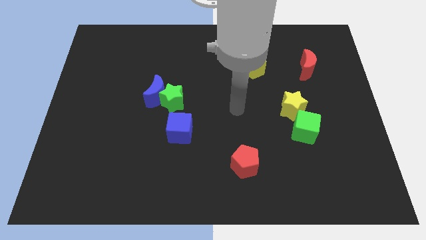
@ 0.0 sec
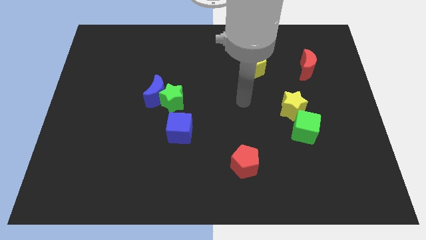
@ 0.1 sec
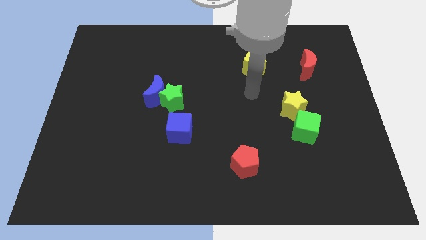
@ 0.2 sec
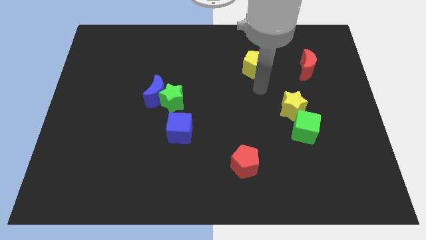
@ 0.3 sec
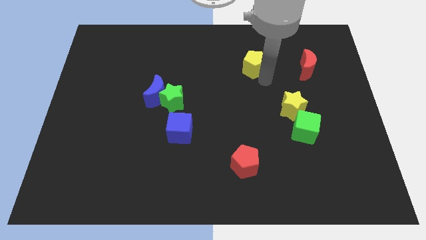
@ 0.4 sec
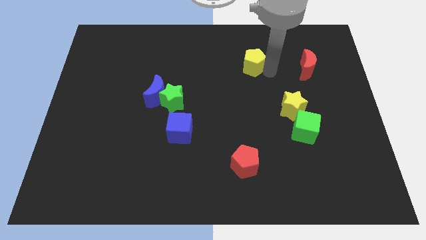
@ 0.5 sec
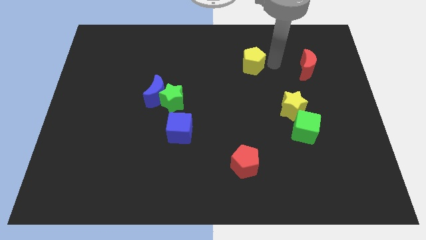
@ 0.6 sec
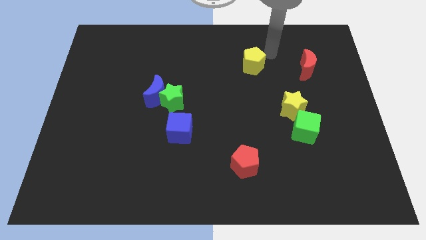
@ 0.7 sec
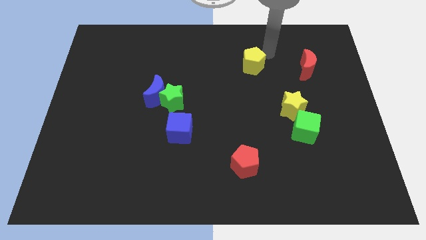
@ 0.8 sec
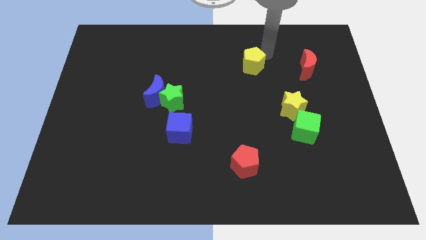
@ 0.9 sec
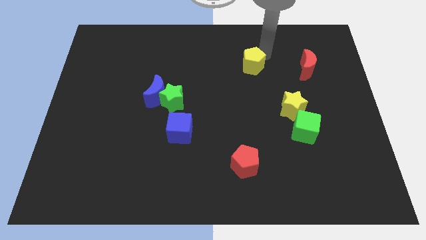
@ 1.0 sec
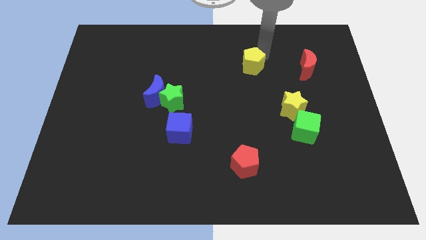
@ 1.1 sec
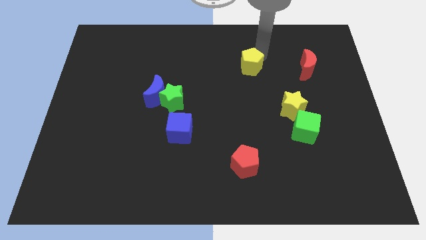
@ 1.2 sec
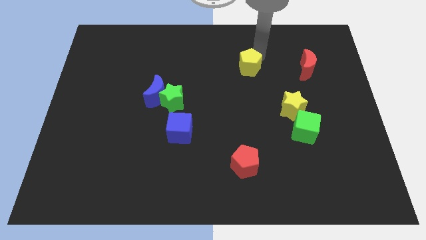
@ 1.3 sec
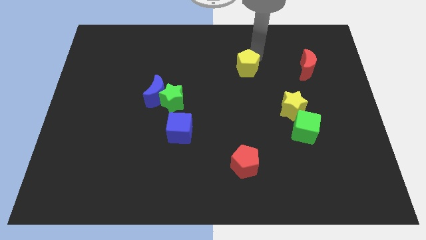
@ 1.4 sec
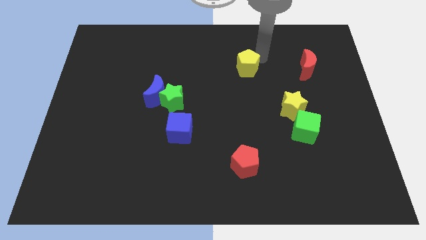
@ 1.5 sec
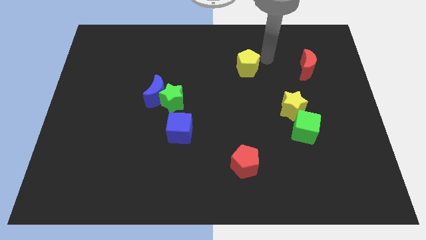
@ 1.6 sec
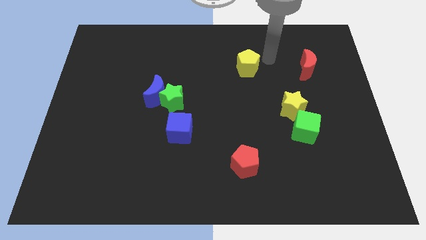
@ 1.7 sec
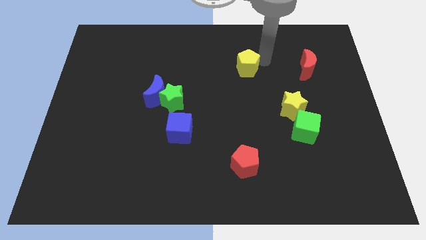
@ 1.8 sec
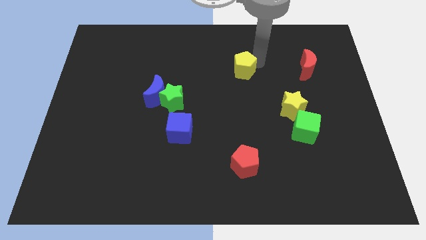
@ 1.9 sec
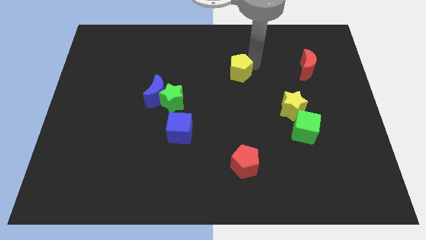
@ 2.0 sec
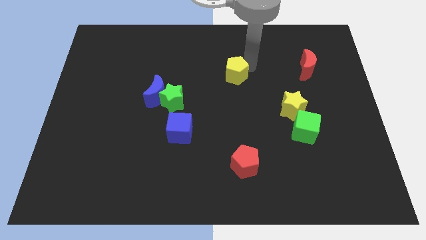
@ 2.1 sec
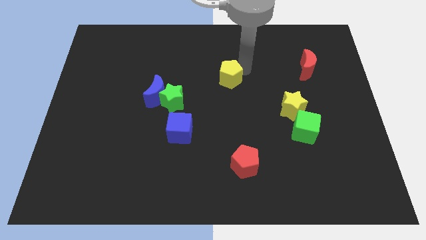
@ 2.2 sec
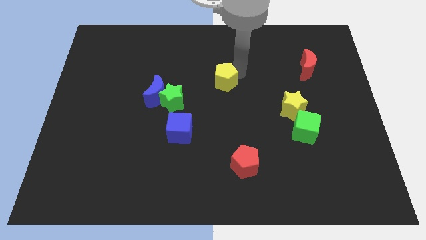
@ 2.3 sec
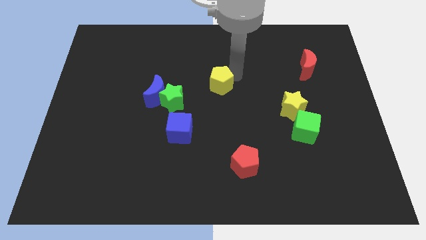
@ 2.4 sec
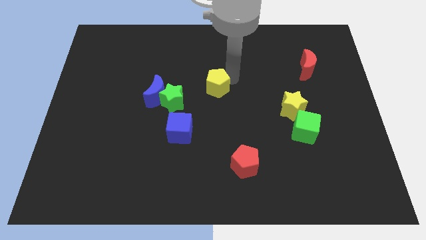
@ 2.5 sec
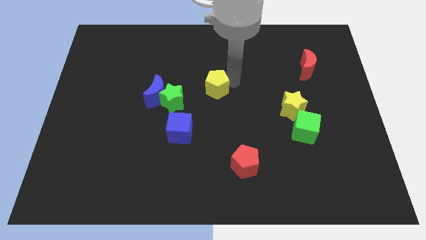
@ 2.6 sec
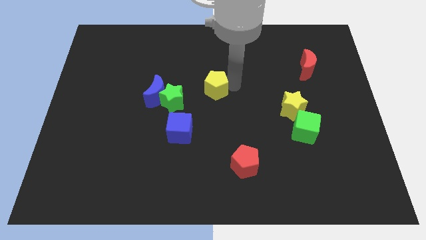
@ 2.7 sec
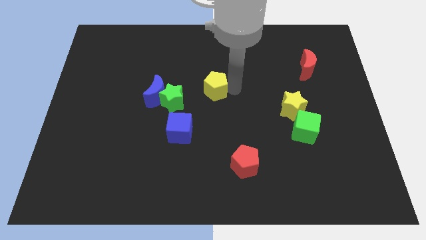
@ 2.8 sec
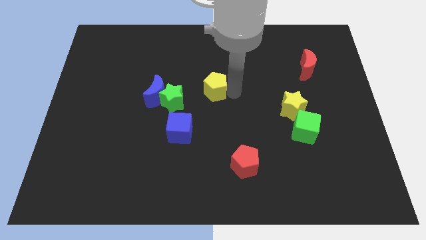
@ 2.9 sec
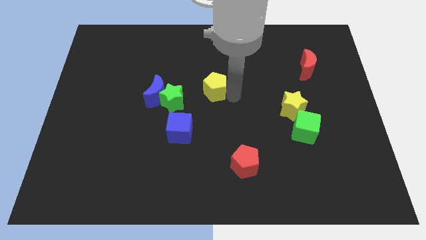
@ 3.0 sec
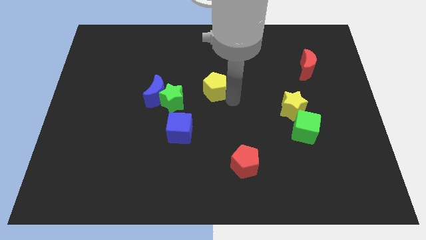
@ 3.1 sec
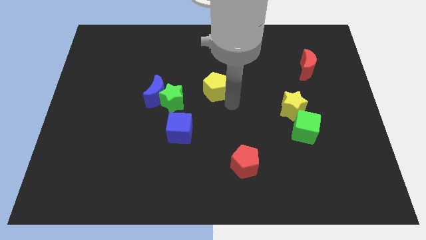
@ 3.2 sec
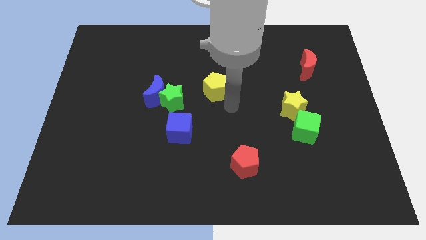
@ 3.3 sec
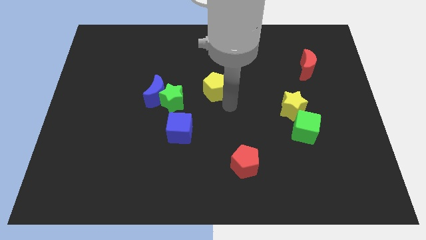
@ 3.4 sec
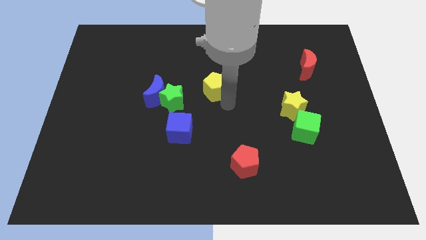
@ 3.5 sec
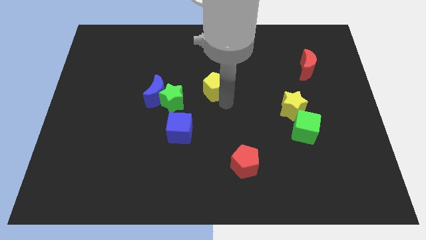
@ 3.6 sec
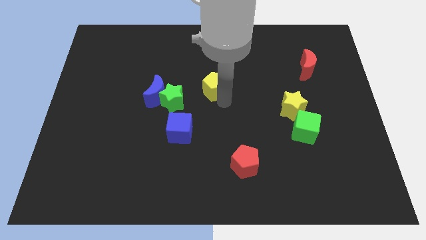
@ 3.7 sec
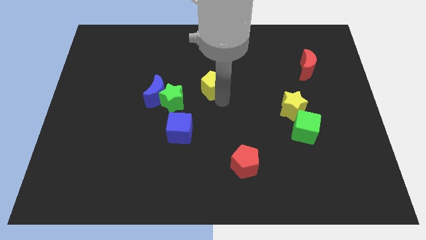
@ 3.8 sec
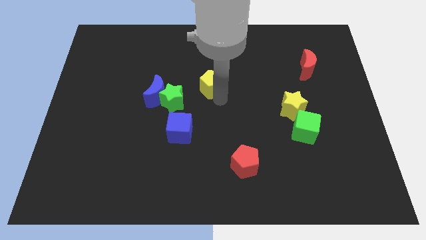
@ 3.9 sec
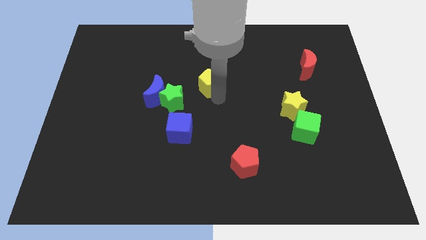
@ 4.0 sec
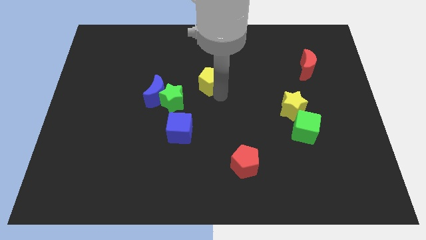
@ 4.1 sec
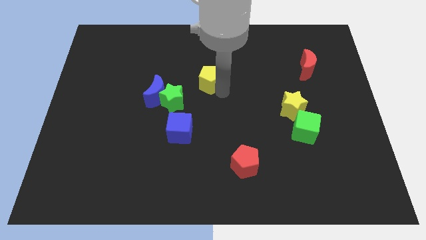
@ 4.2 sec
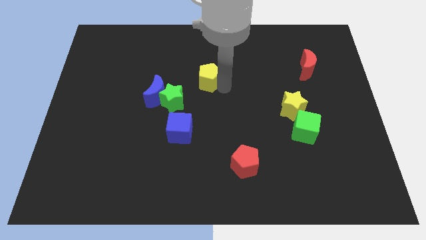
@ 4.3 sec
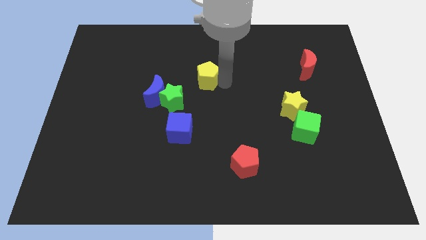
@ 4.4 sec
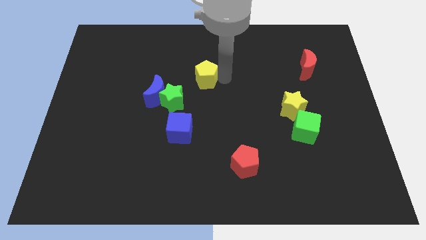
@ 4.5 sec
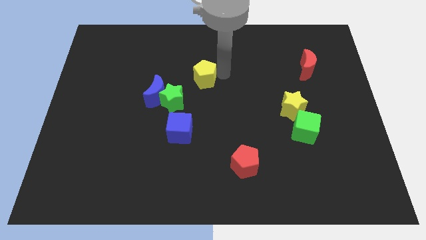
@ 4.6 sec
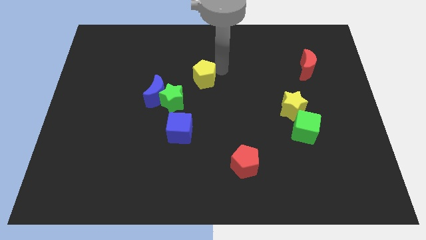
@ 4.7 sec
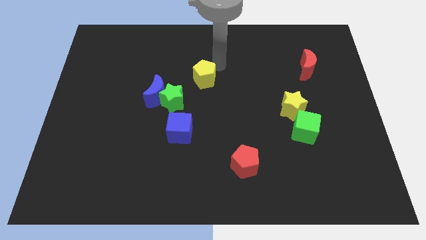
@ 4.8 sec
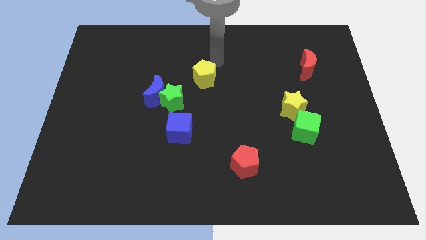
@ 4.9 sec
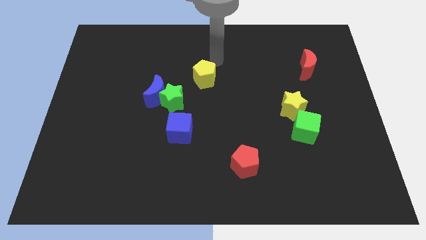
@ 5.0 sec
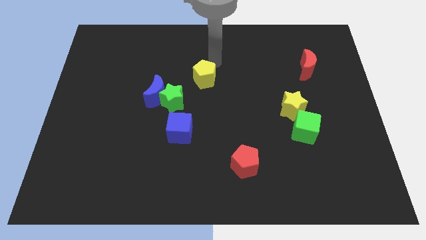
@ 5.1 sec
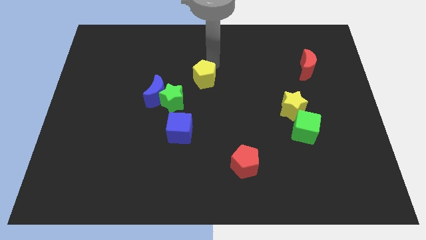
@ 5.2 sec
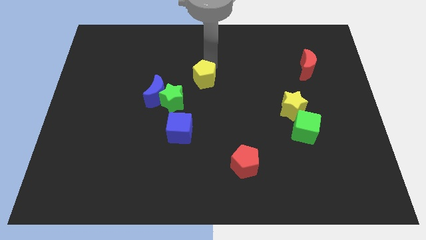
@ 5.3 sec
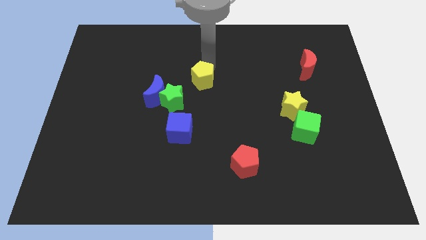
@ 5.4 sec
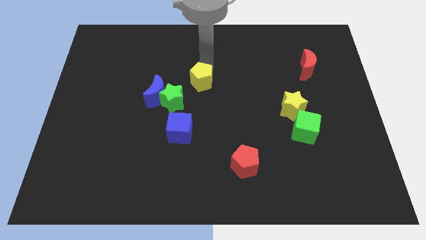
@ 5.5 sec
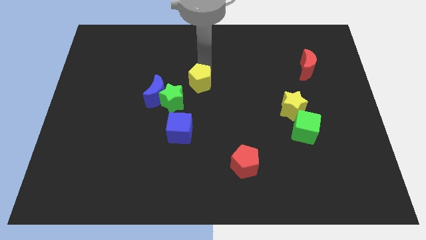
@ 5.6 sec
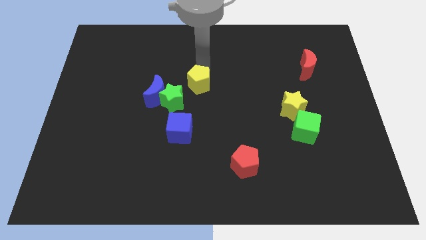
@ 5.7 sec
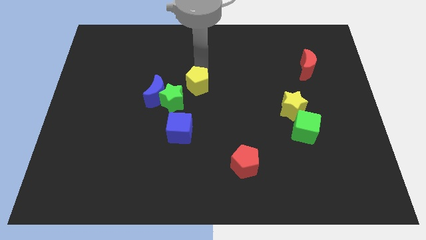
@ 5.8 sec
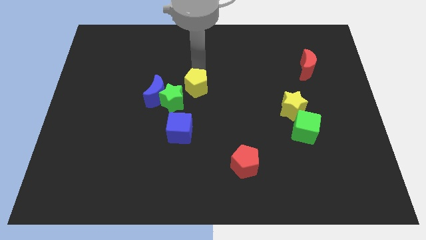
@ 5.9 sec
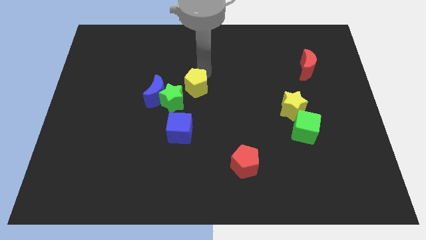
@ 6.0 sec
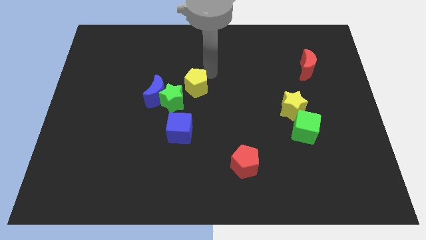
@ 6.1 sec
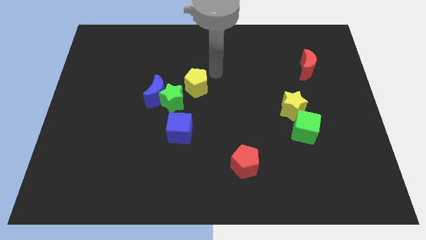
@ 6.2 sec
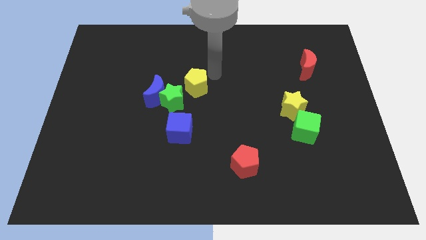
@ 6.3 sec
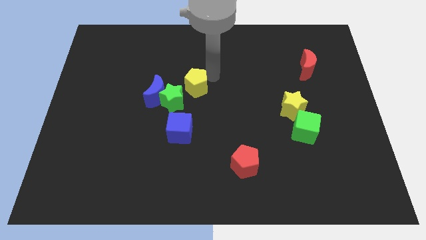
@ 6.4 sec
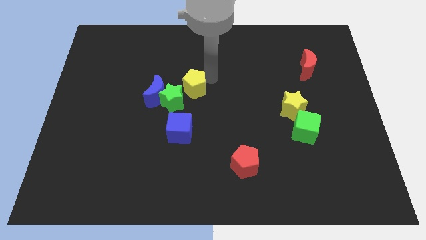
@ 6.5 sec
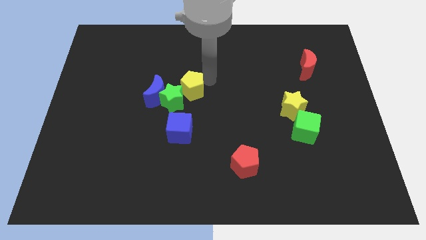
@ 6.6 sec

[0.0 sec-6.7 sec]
push the yellow pentagon towards the green star
